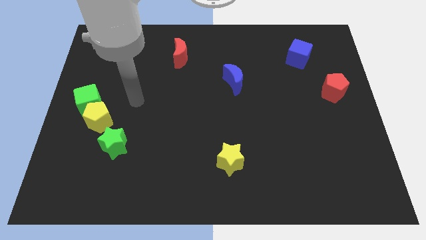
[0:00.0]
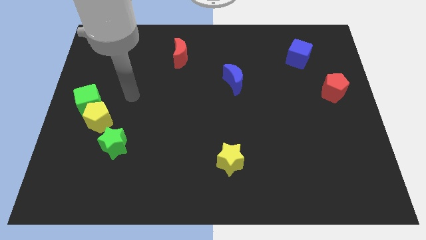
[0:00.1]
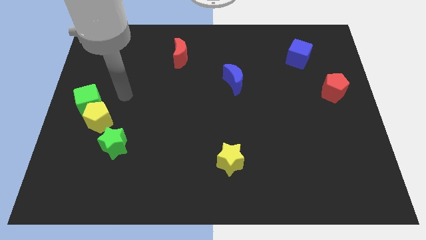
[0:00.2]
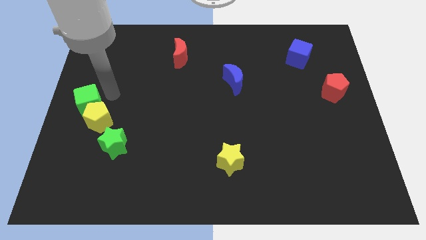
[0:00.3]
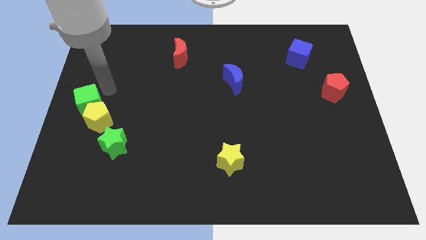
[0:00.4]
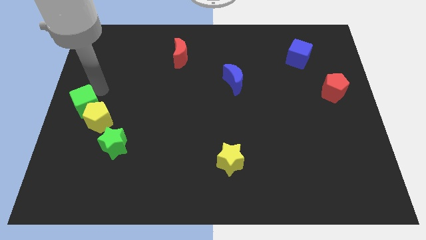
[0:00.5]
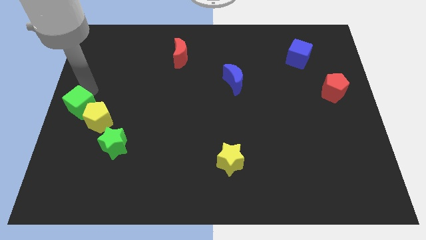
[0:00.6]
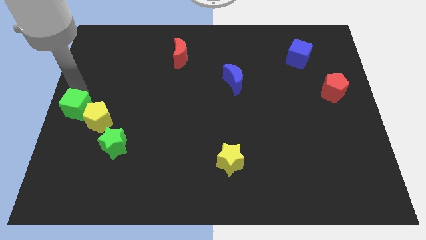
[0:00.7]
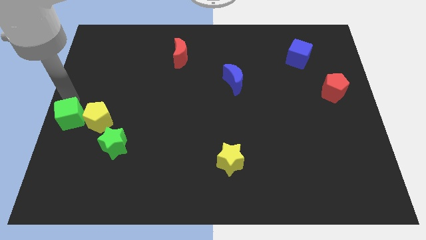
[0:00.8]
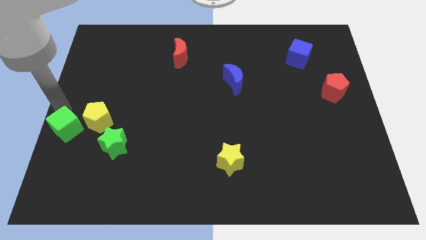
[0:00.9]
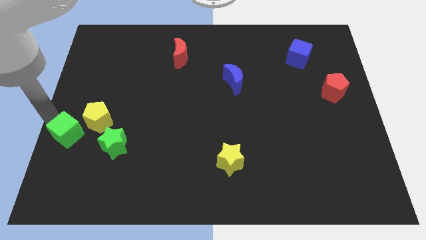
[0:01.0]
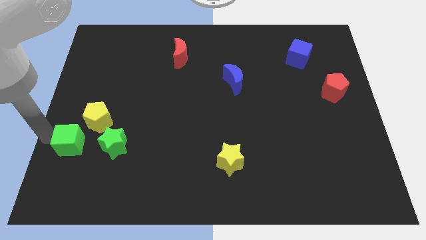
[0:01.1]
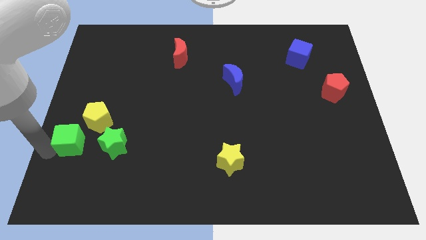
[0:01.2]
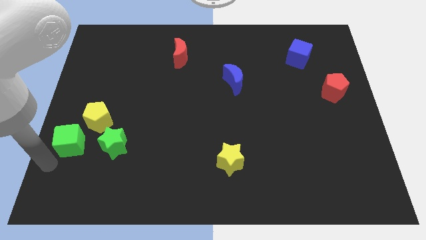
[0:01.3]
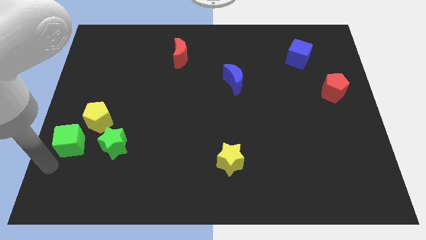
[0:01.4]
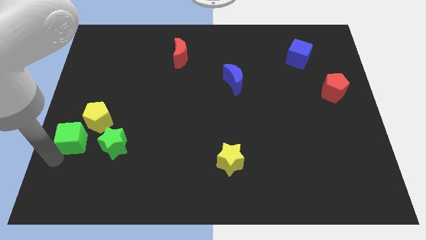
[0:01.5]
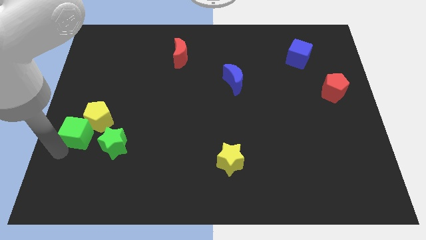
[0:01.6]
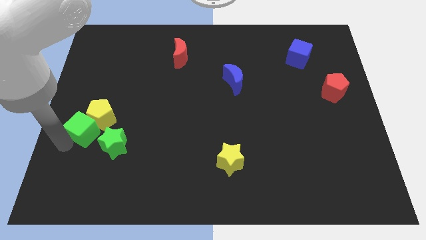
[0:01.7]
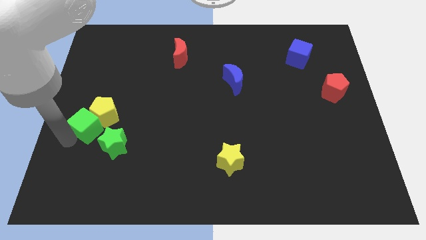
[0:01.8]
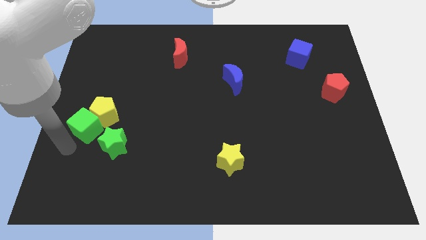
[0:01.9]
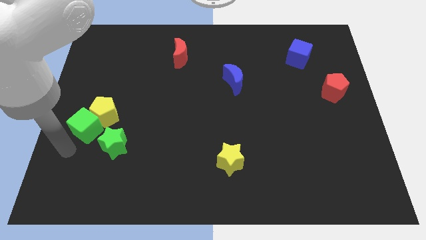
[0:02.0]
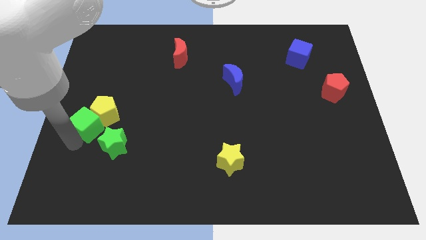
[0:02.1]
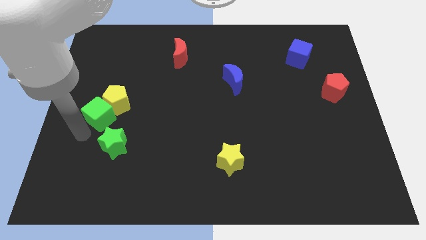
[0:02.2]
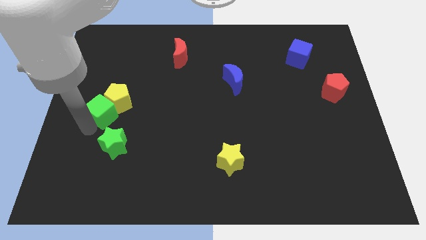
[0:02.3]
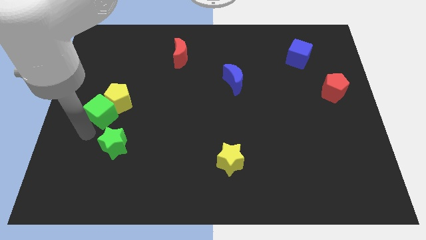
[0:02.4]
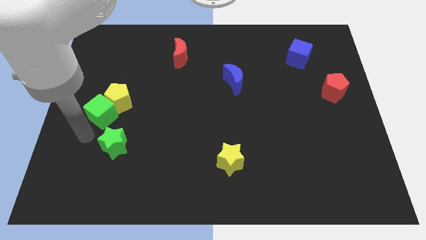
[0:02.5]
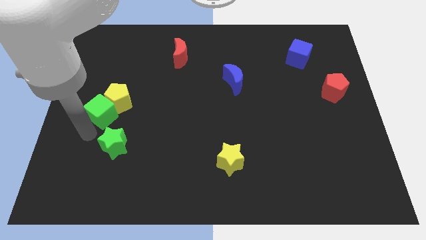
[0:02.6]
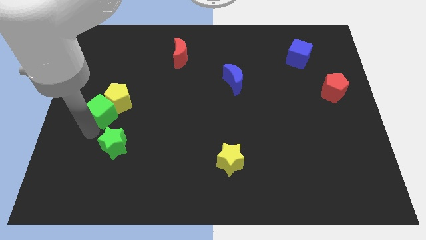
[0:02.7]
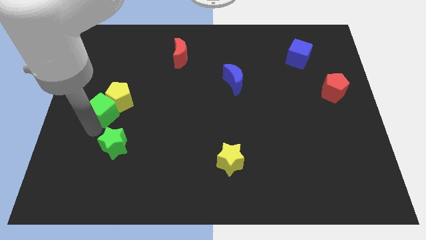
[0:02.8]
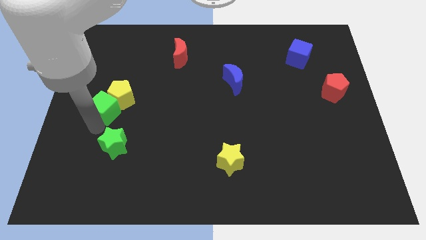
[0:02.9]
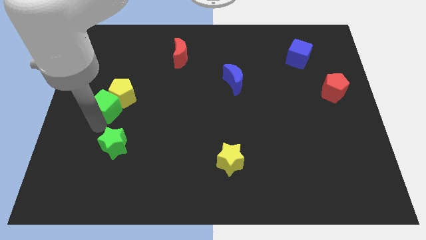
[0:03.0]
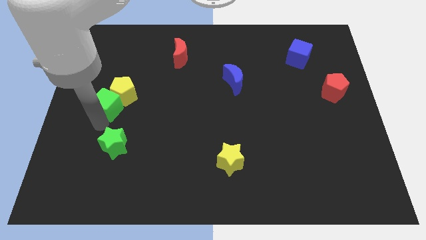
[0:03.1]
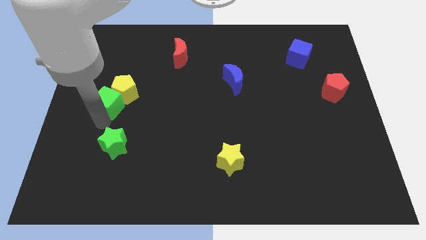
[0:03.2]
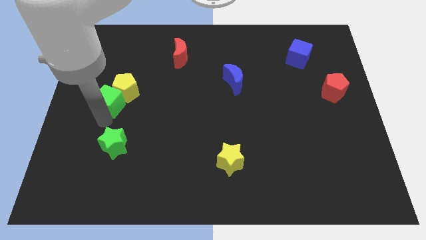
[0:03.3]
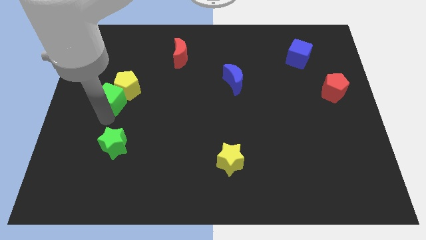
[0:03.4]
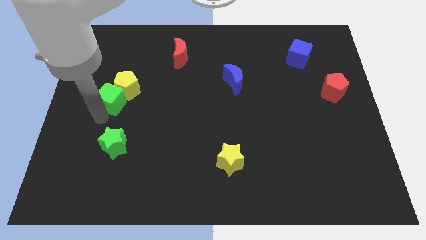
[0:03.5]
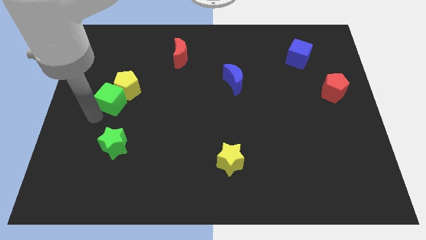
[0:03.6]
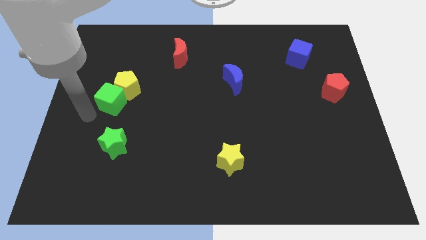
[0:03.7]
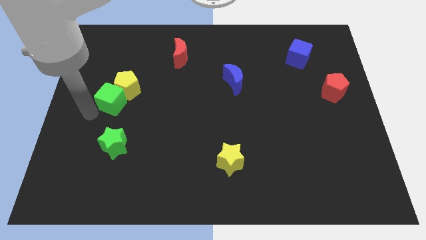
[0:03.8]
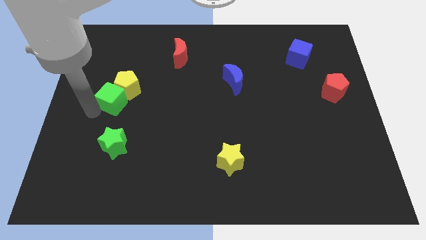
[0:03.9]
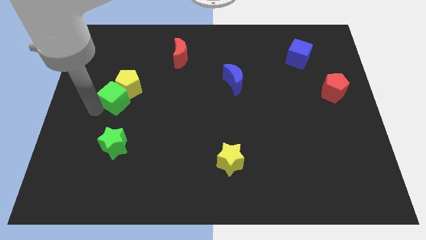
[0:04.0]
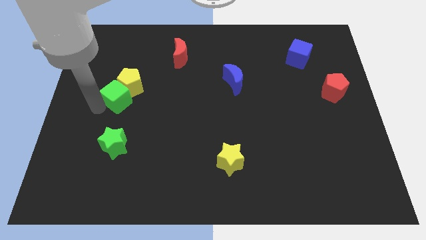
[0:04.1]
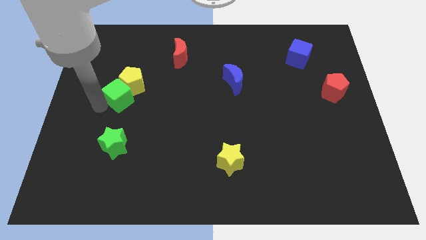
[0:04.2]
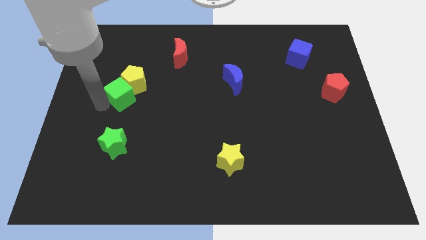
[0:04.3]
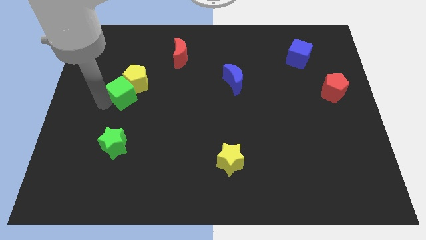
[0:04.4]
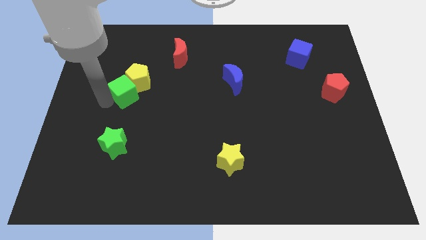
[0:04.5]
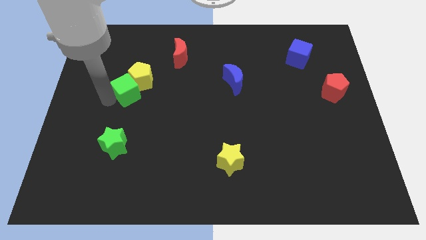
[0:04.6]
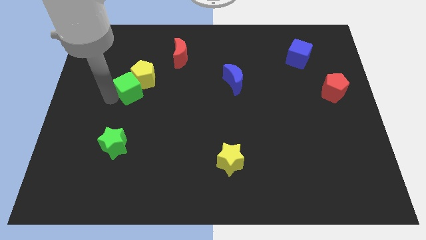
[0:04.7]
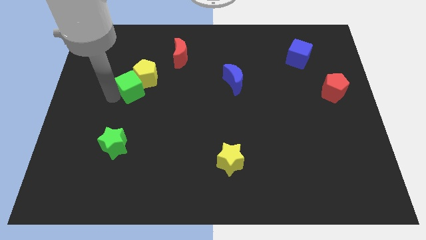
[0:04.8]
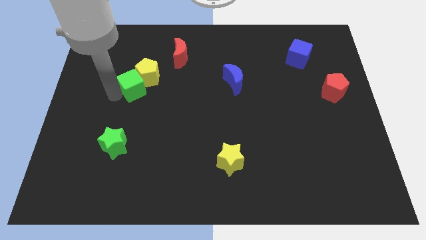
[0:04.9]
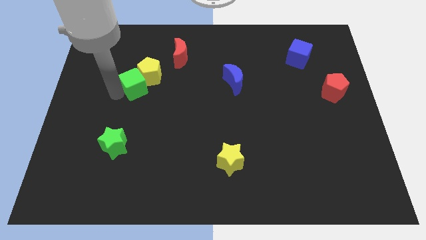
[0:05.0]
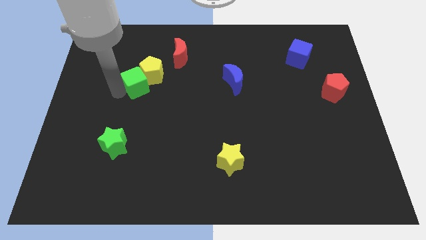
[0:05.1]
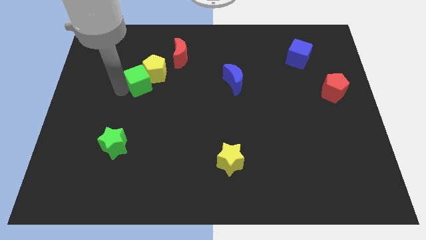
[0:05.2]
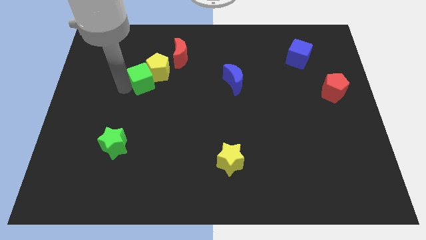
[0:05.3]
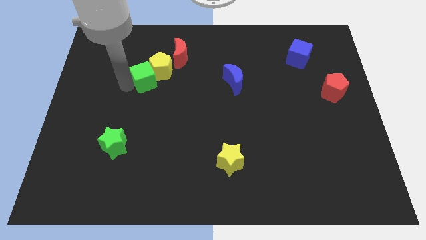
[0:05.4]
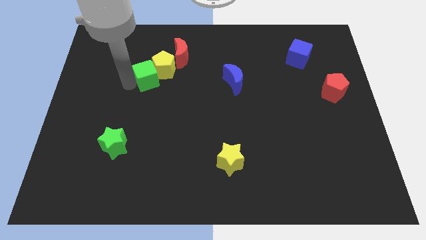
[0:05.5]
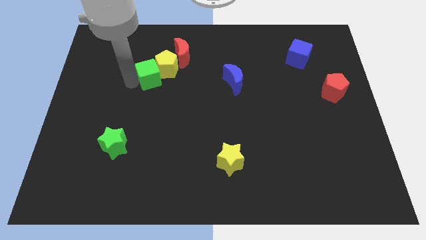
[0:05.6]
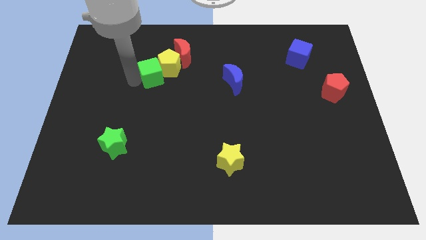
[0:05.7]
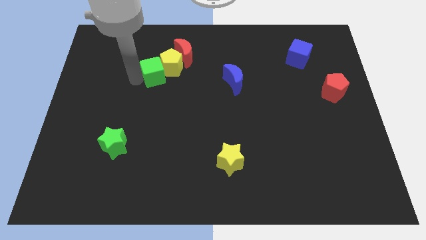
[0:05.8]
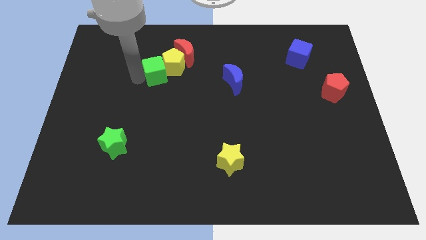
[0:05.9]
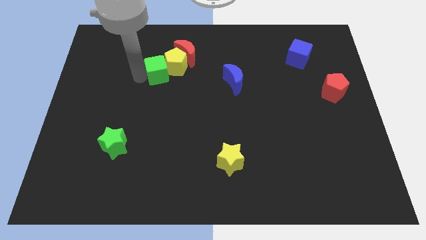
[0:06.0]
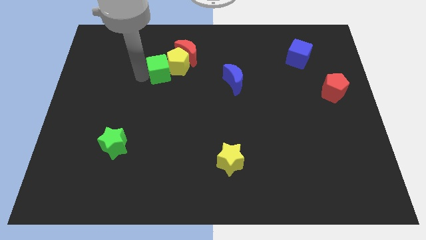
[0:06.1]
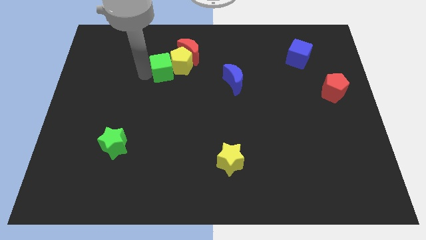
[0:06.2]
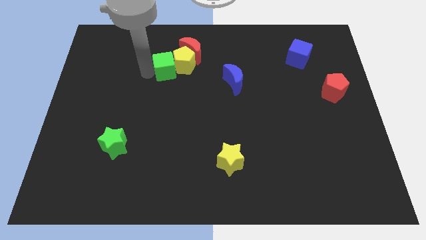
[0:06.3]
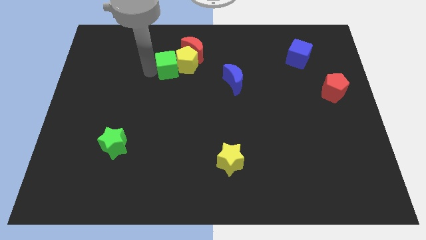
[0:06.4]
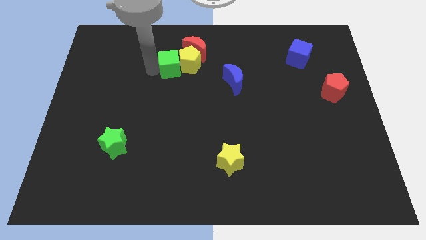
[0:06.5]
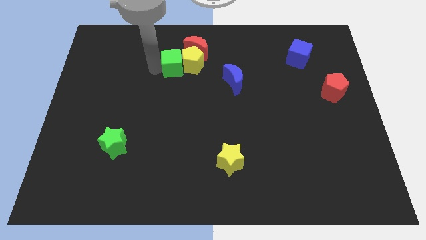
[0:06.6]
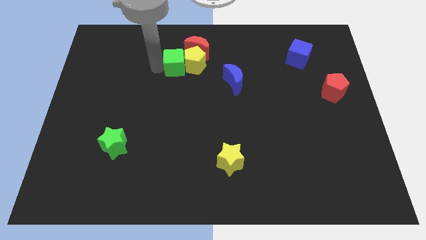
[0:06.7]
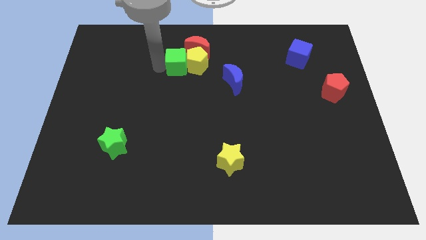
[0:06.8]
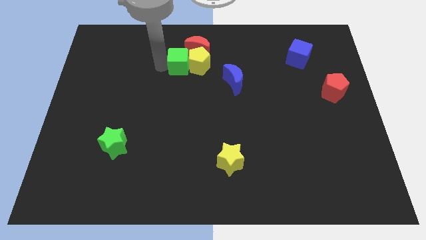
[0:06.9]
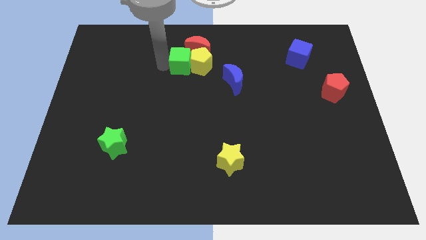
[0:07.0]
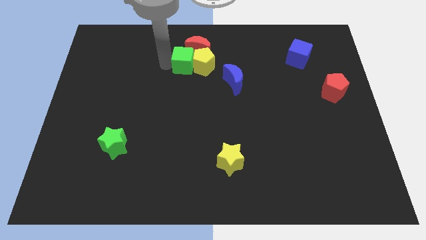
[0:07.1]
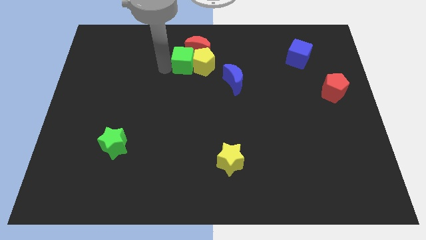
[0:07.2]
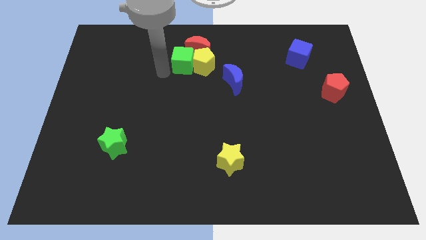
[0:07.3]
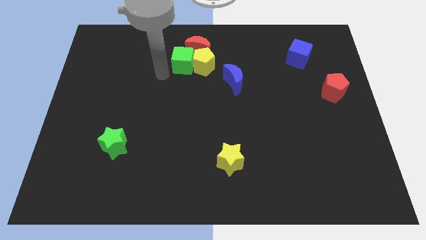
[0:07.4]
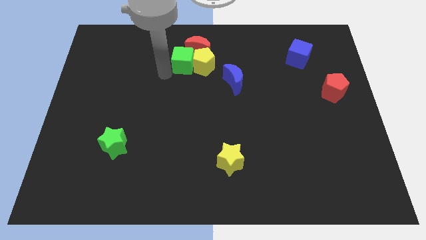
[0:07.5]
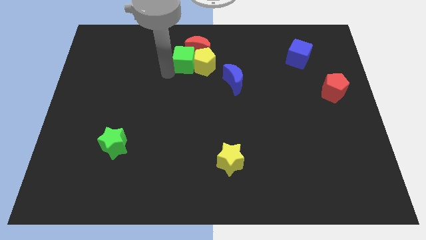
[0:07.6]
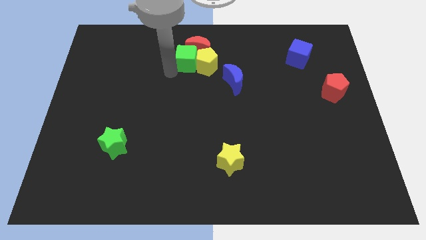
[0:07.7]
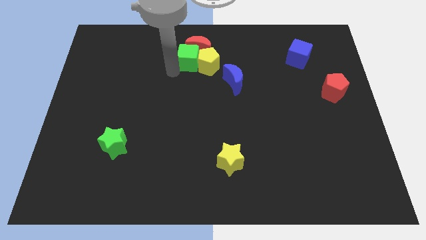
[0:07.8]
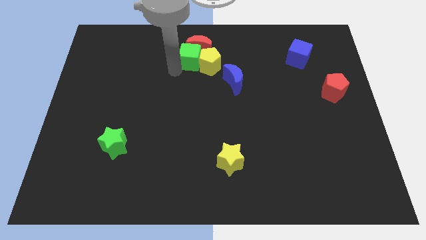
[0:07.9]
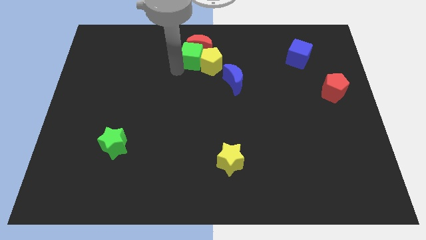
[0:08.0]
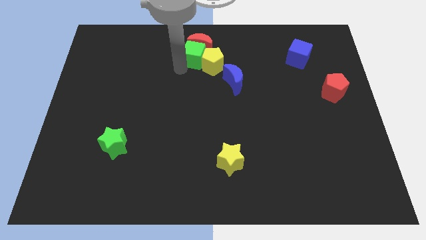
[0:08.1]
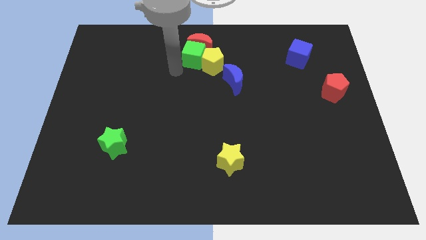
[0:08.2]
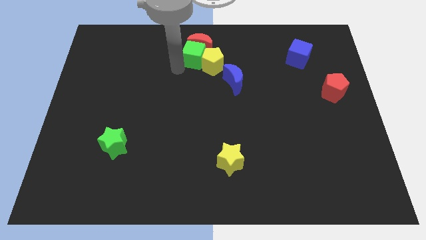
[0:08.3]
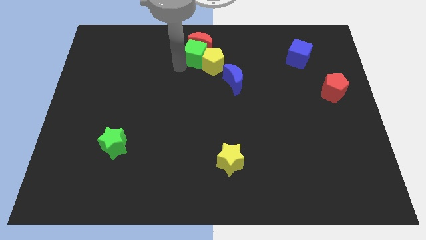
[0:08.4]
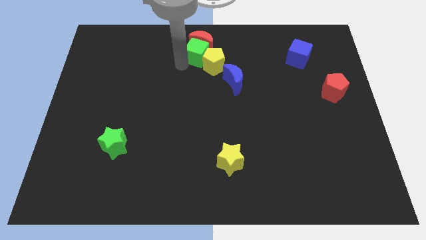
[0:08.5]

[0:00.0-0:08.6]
push the green cube to the towards your base
